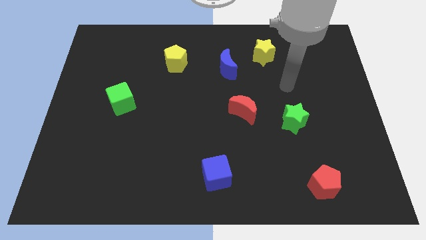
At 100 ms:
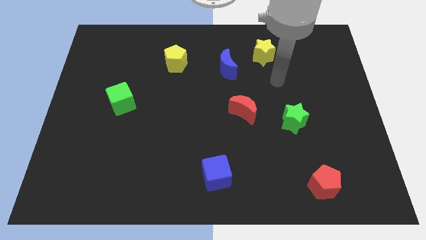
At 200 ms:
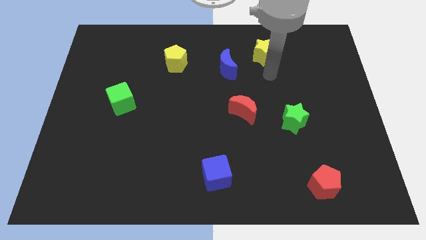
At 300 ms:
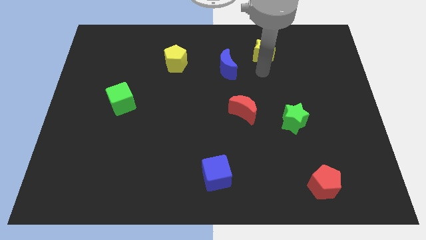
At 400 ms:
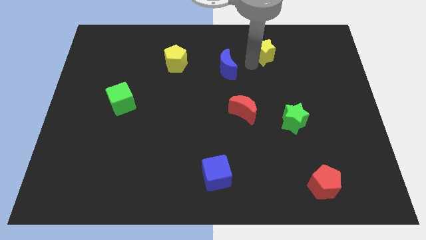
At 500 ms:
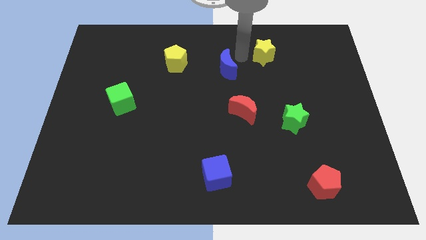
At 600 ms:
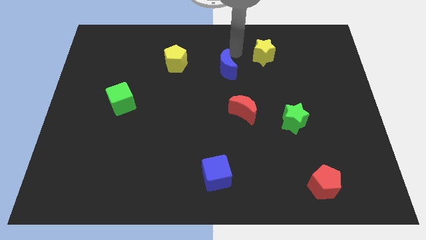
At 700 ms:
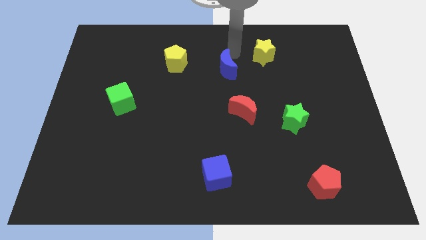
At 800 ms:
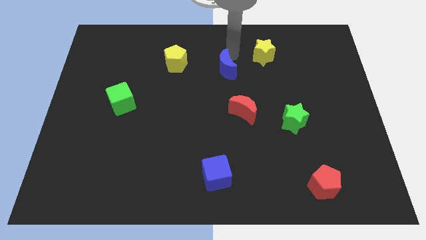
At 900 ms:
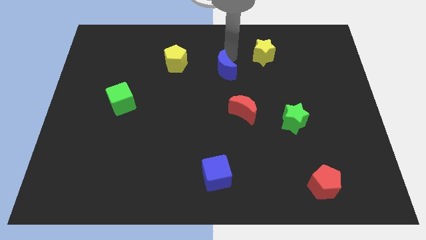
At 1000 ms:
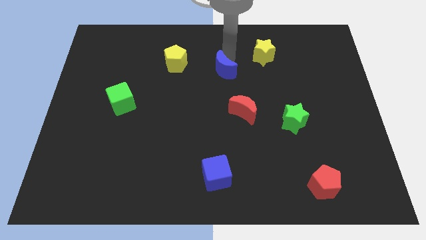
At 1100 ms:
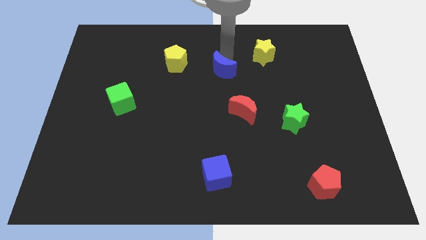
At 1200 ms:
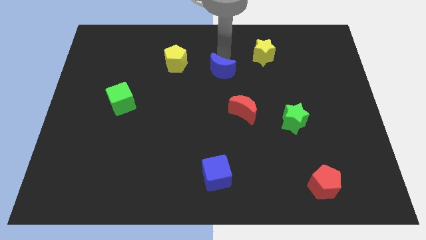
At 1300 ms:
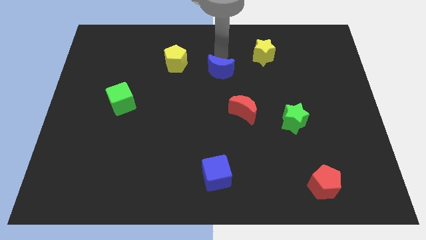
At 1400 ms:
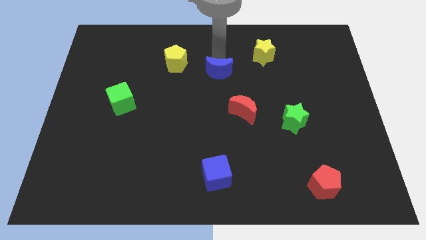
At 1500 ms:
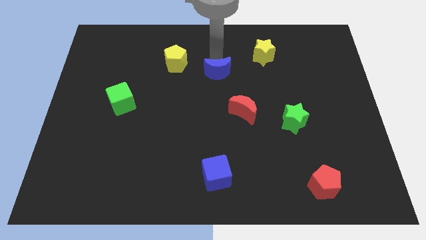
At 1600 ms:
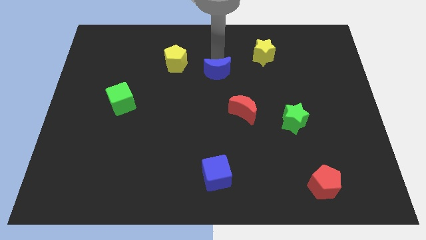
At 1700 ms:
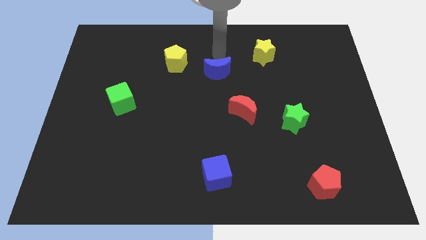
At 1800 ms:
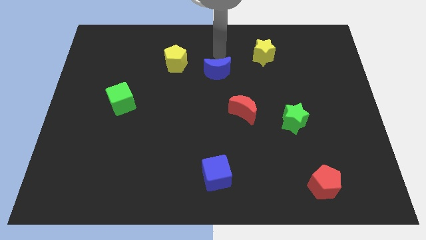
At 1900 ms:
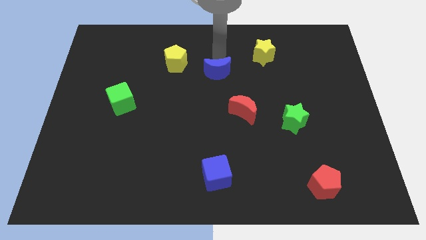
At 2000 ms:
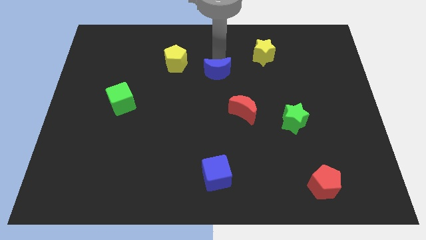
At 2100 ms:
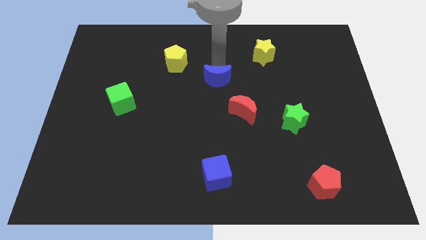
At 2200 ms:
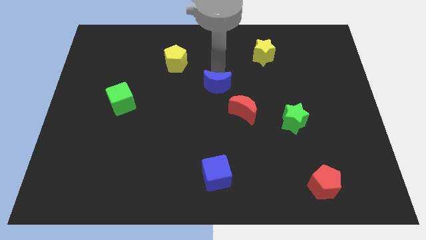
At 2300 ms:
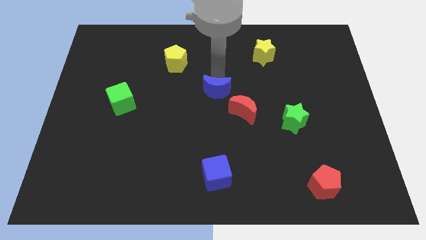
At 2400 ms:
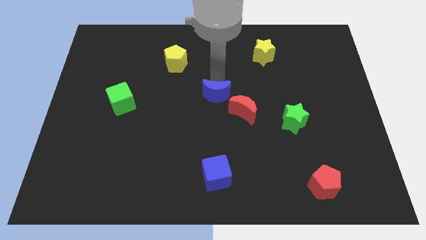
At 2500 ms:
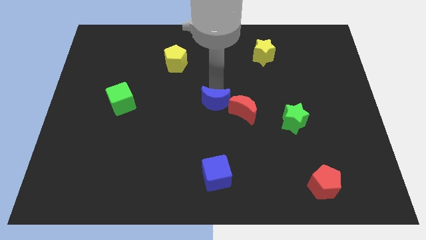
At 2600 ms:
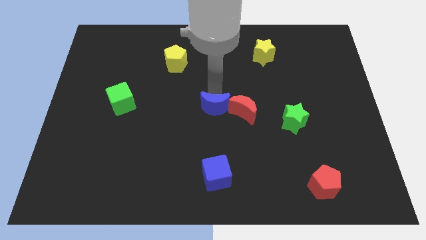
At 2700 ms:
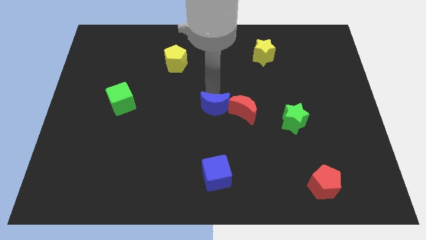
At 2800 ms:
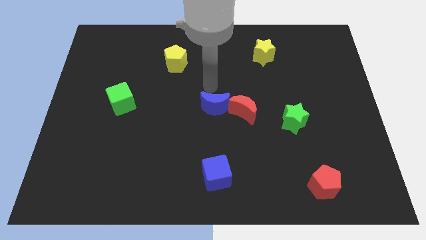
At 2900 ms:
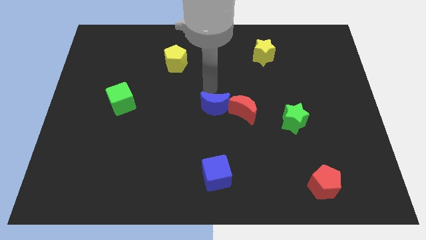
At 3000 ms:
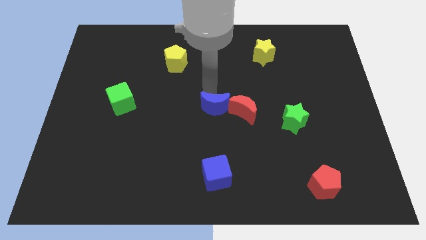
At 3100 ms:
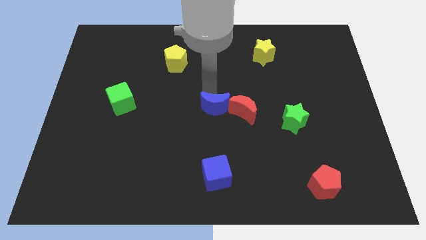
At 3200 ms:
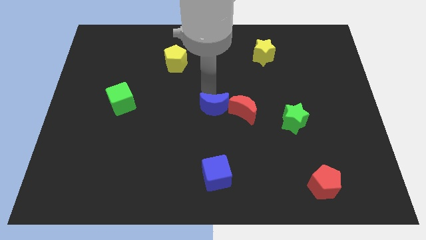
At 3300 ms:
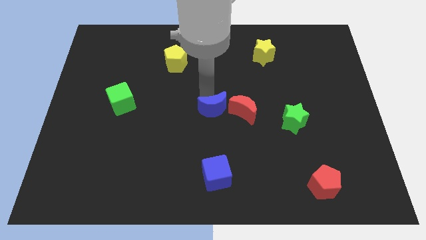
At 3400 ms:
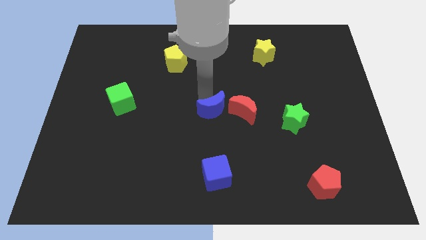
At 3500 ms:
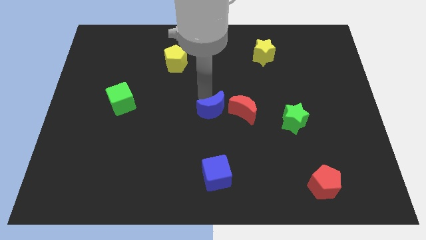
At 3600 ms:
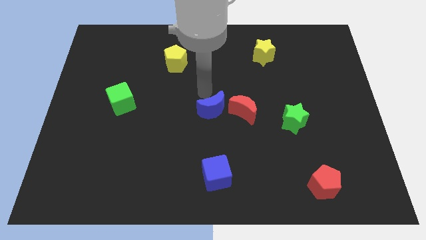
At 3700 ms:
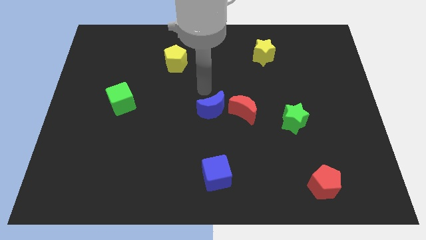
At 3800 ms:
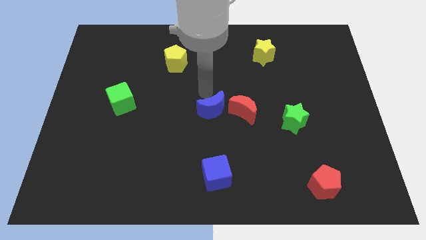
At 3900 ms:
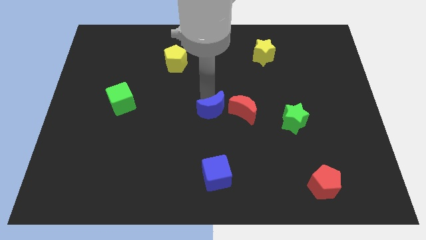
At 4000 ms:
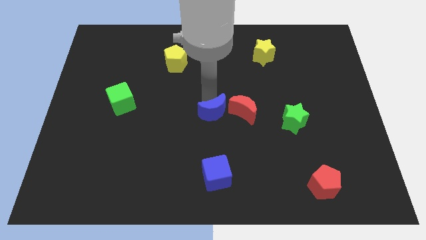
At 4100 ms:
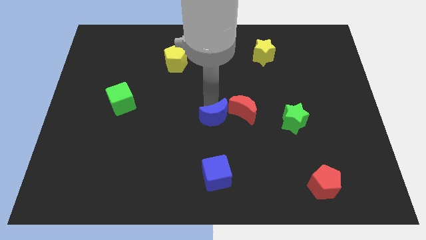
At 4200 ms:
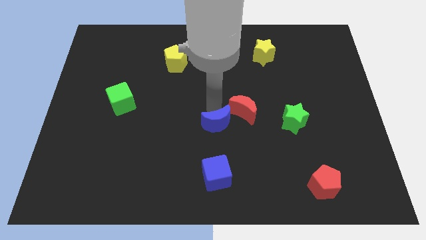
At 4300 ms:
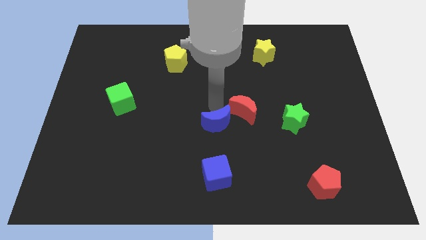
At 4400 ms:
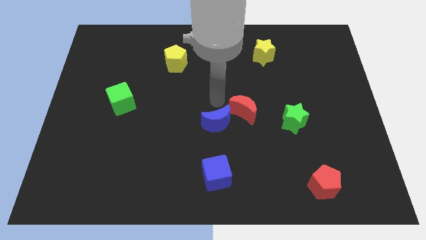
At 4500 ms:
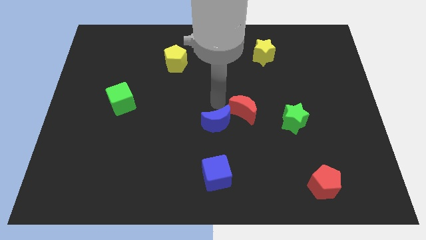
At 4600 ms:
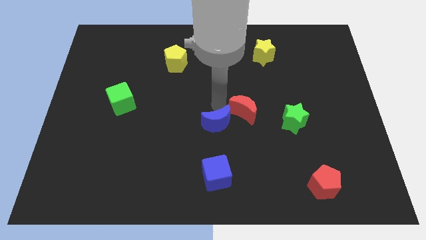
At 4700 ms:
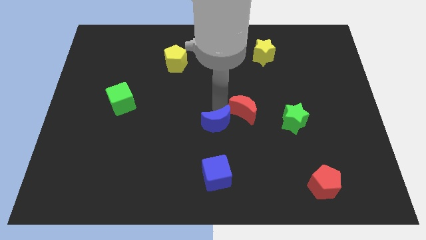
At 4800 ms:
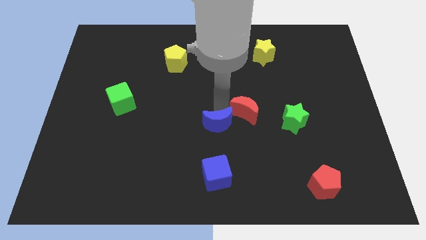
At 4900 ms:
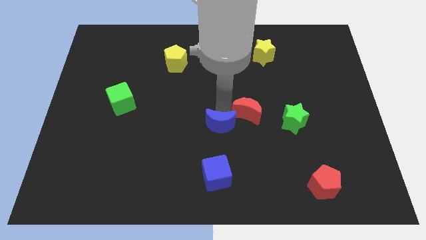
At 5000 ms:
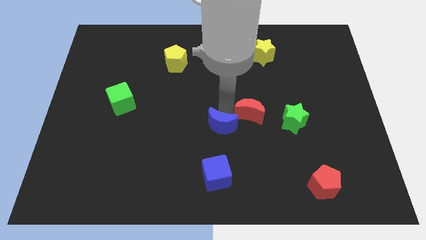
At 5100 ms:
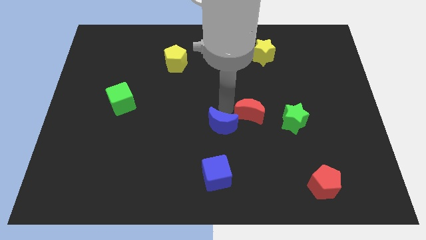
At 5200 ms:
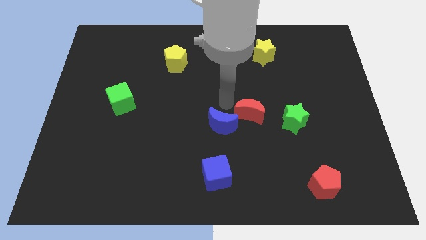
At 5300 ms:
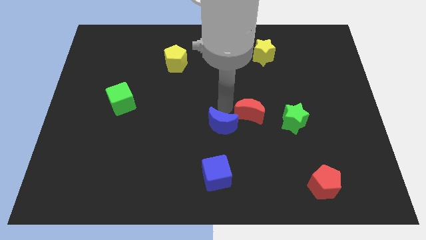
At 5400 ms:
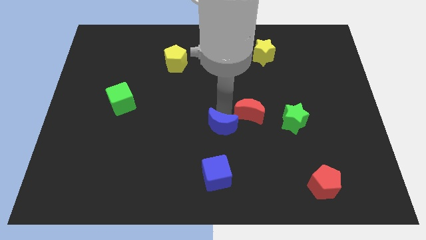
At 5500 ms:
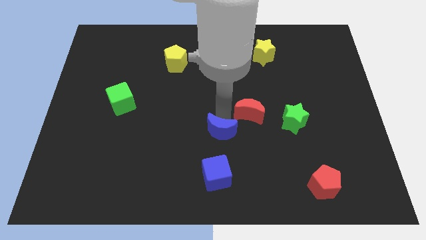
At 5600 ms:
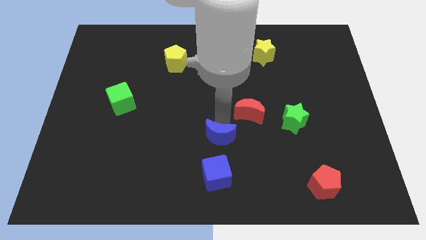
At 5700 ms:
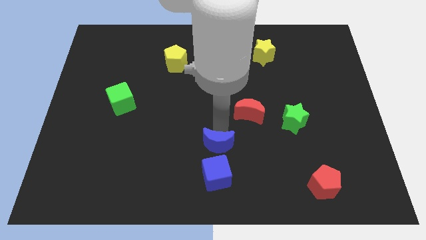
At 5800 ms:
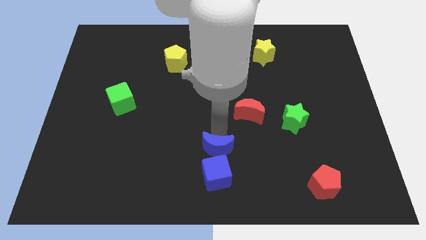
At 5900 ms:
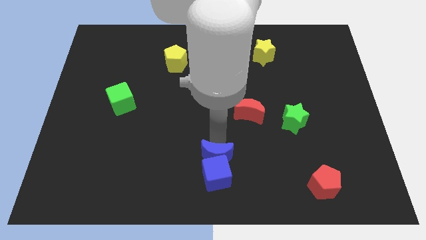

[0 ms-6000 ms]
move the blue moon towards the blue cube

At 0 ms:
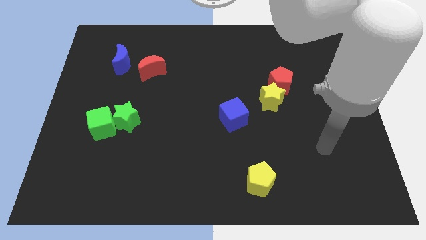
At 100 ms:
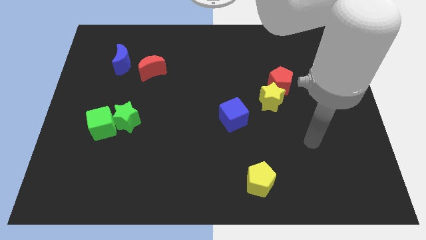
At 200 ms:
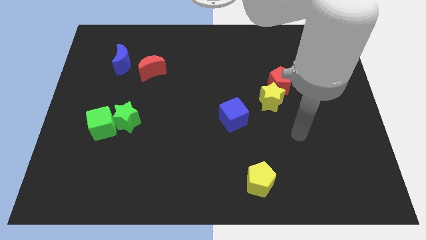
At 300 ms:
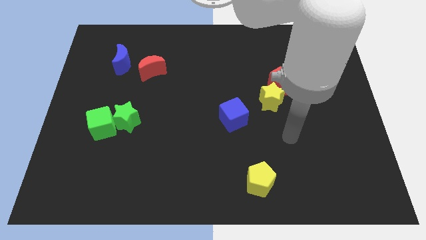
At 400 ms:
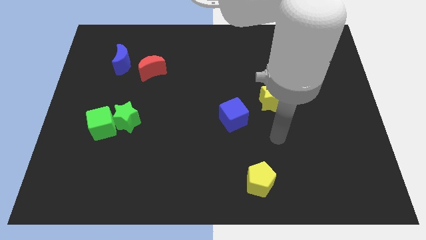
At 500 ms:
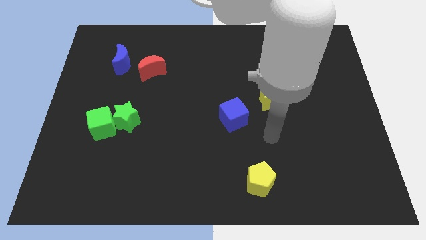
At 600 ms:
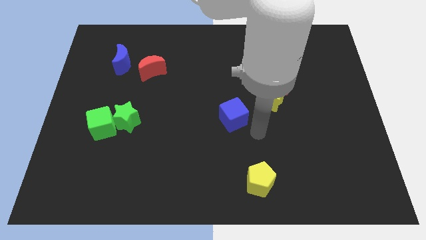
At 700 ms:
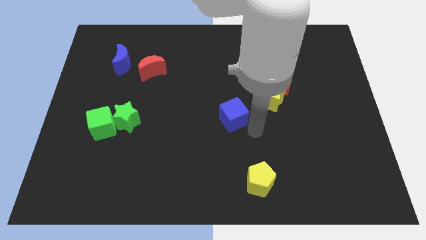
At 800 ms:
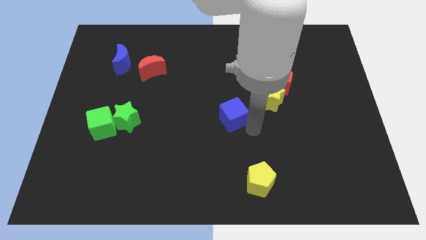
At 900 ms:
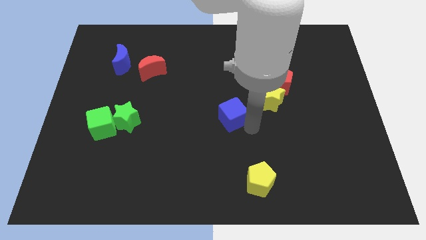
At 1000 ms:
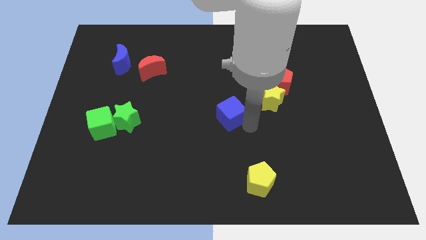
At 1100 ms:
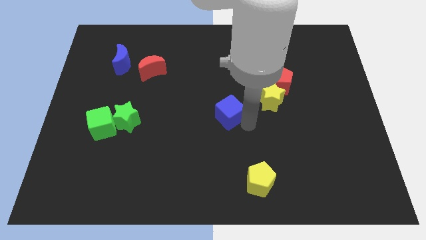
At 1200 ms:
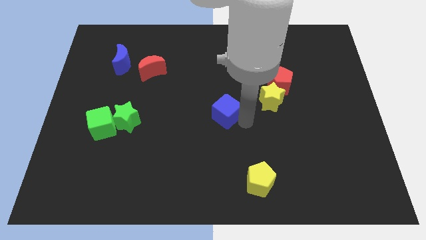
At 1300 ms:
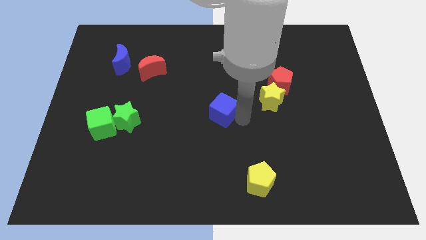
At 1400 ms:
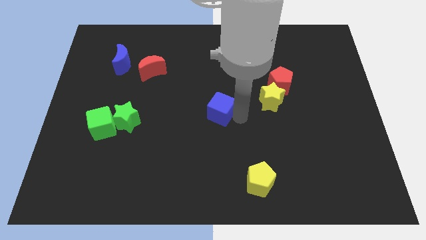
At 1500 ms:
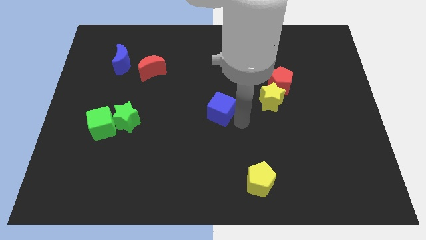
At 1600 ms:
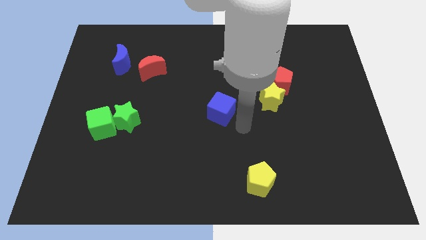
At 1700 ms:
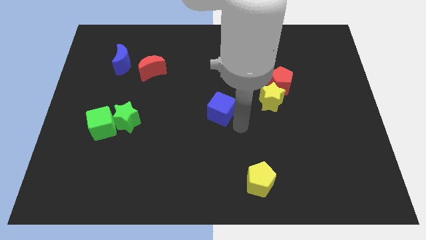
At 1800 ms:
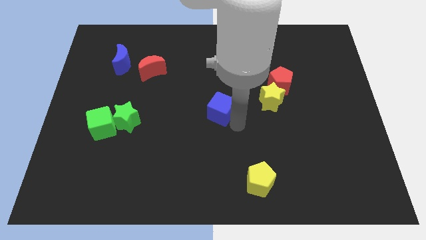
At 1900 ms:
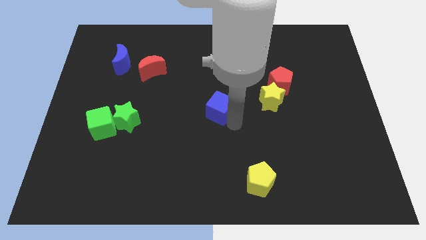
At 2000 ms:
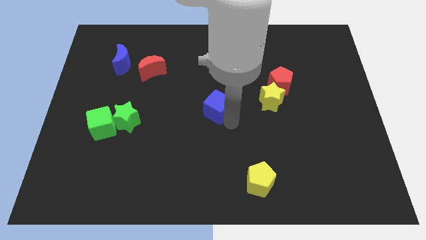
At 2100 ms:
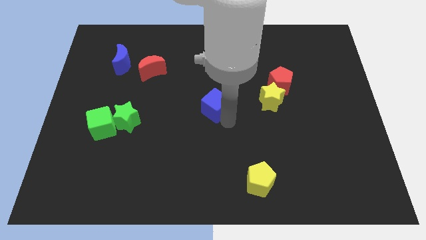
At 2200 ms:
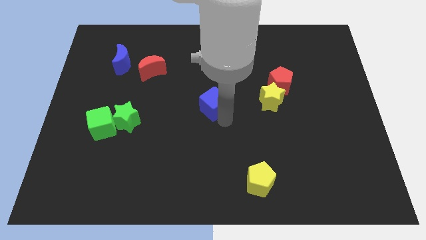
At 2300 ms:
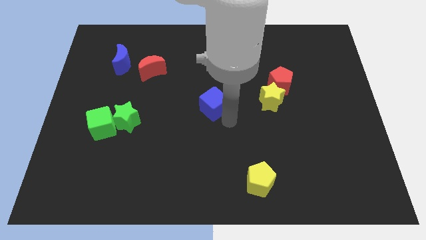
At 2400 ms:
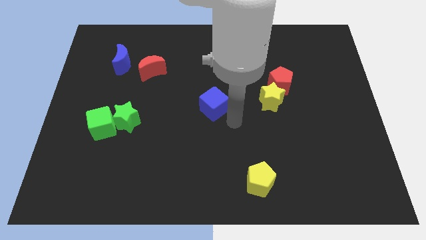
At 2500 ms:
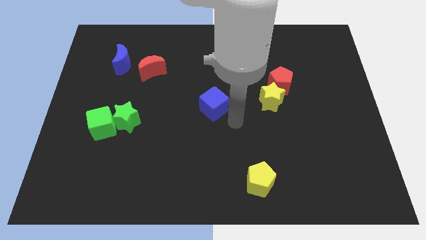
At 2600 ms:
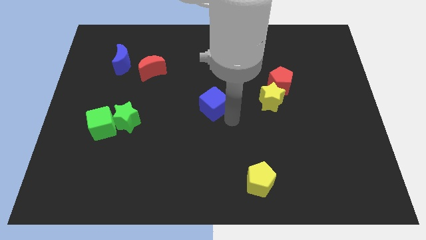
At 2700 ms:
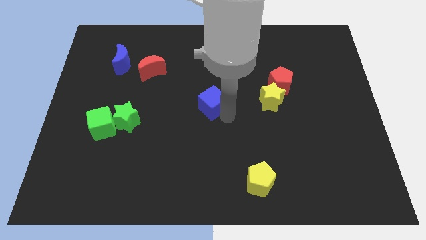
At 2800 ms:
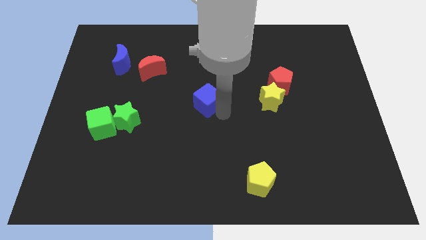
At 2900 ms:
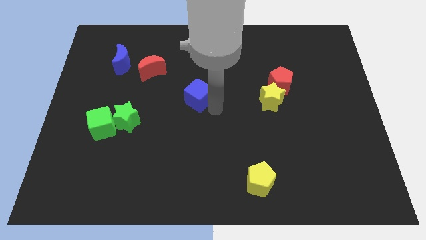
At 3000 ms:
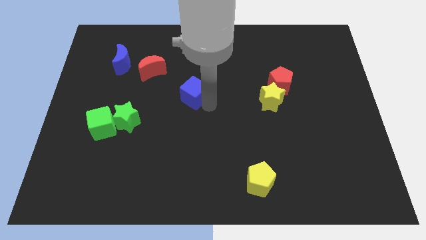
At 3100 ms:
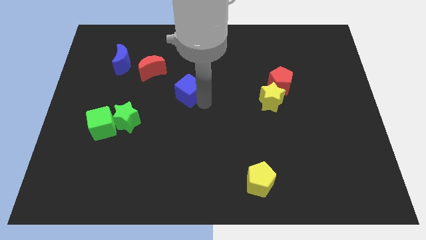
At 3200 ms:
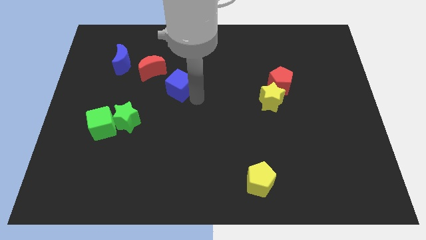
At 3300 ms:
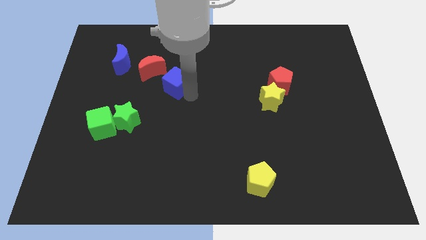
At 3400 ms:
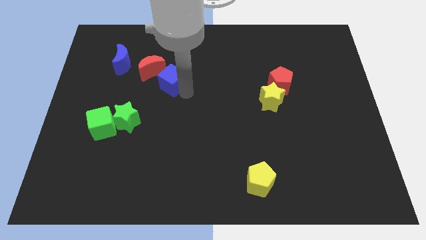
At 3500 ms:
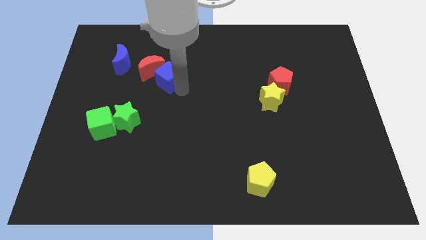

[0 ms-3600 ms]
move the blue cube to the red moon
